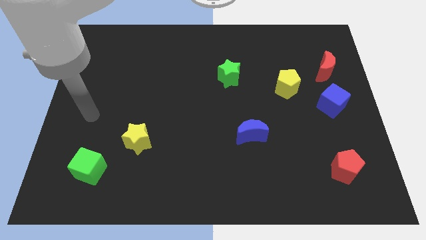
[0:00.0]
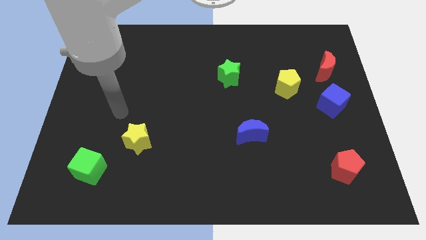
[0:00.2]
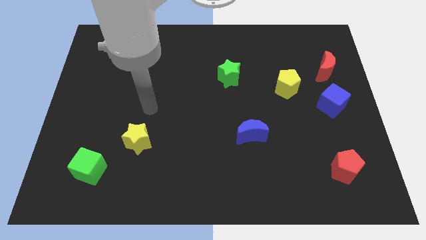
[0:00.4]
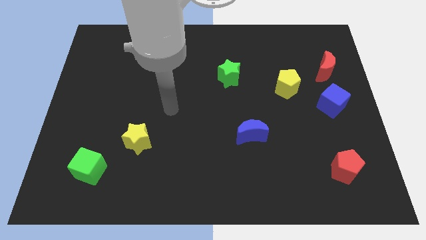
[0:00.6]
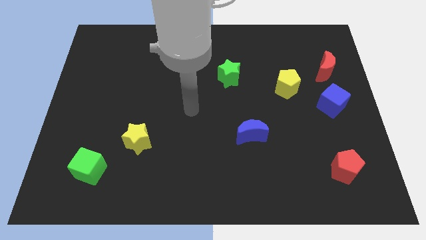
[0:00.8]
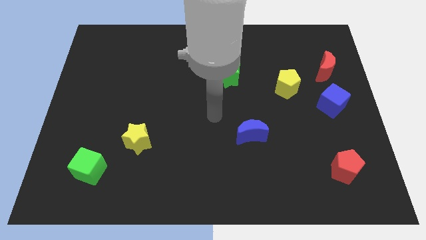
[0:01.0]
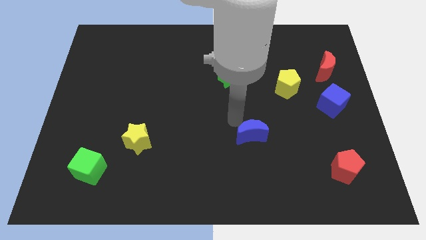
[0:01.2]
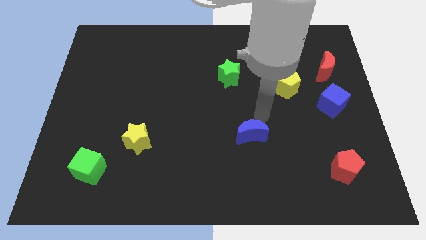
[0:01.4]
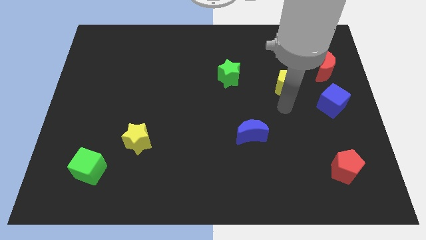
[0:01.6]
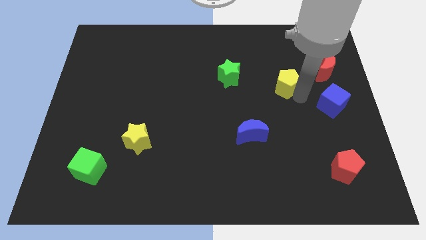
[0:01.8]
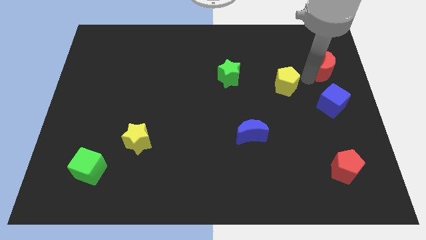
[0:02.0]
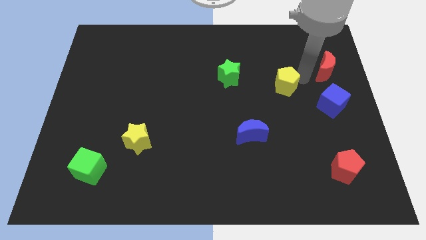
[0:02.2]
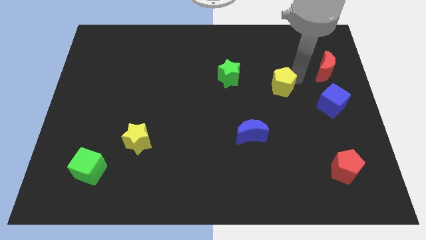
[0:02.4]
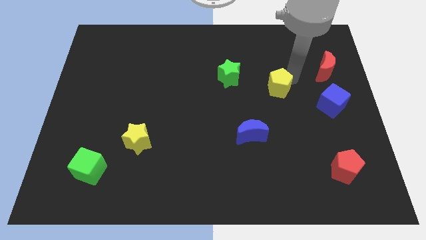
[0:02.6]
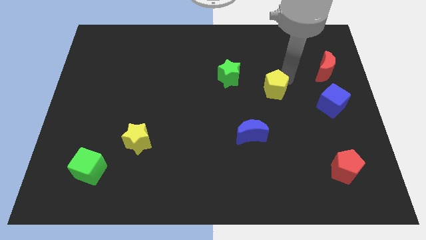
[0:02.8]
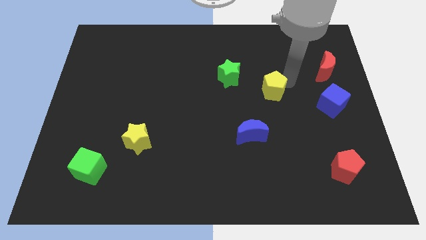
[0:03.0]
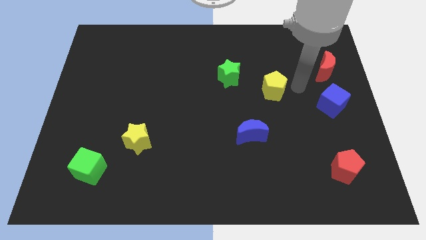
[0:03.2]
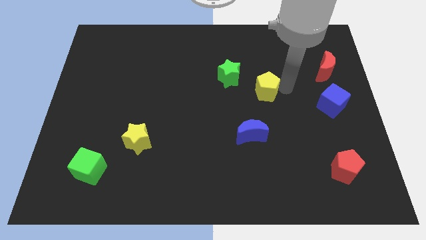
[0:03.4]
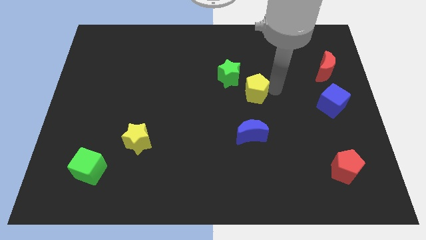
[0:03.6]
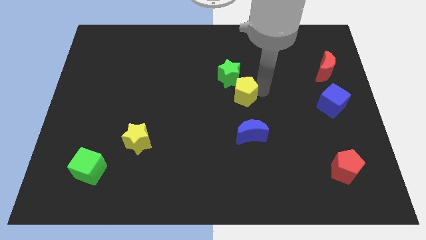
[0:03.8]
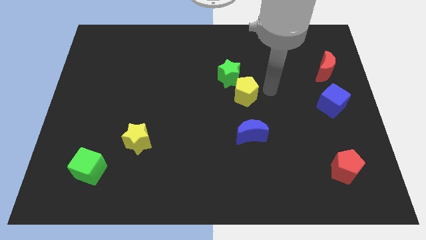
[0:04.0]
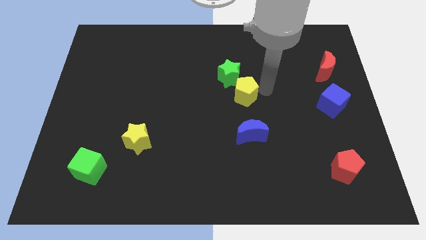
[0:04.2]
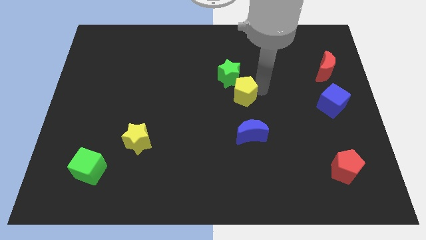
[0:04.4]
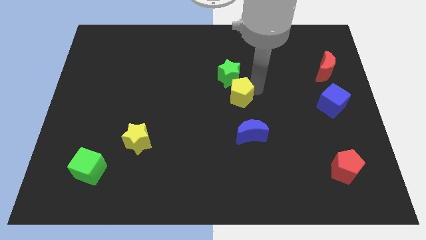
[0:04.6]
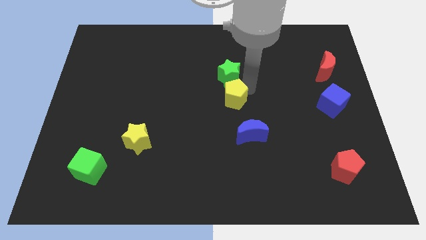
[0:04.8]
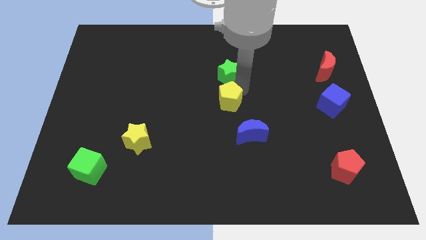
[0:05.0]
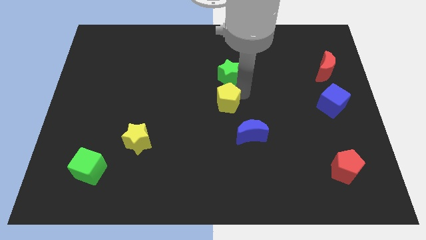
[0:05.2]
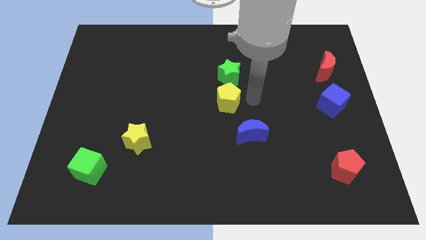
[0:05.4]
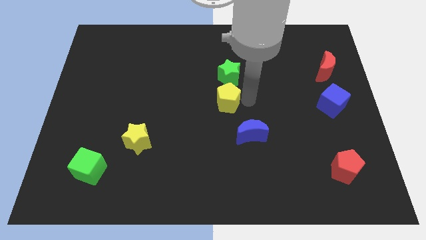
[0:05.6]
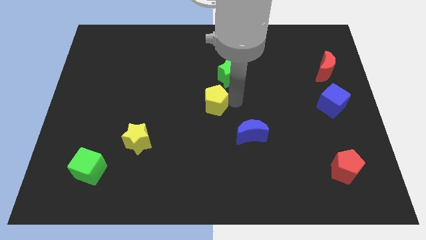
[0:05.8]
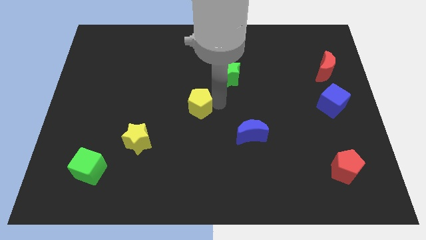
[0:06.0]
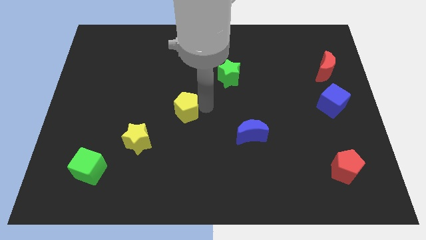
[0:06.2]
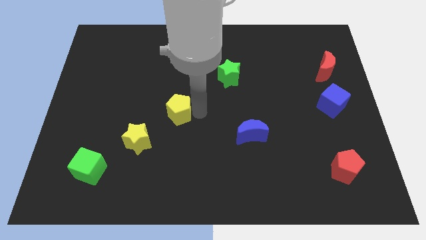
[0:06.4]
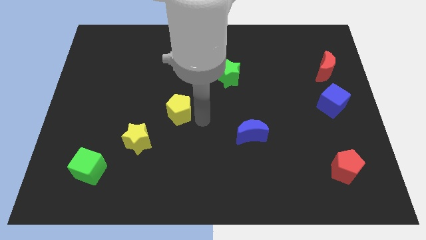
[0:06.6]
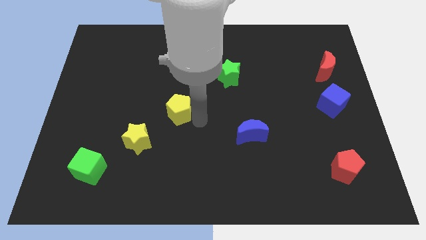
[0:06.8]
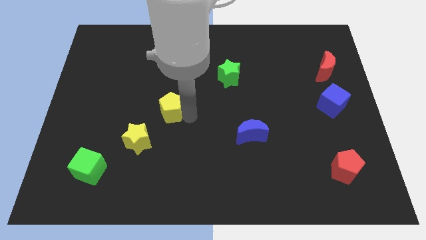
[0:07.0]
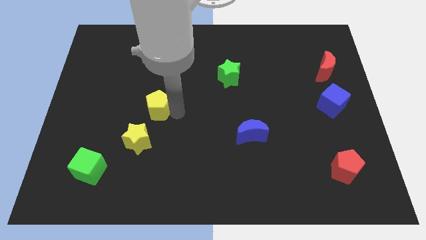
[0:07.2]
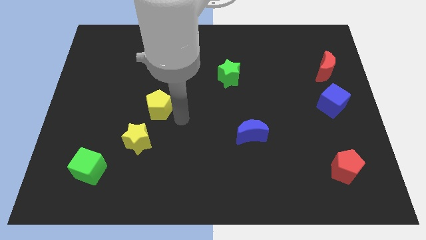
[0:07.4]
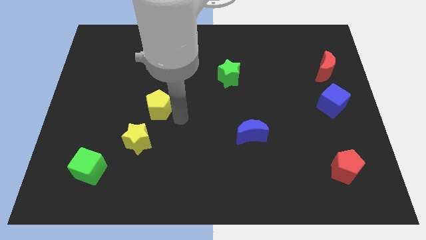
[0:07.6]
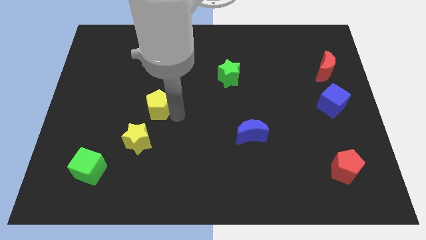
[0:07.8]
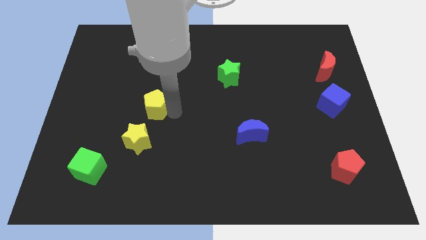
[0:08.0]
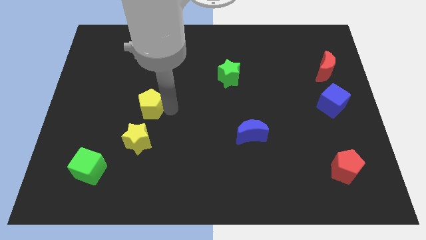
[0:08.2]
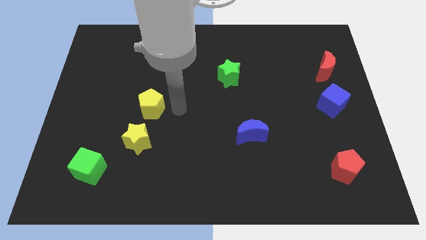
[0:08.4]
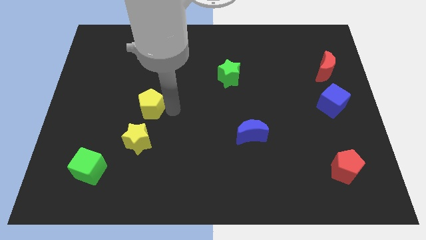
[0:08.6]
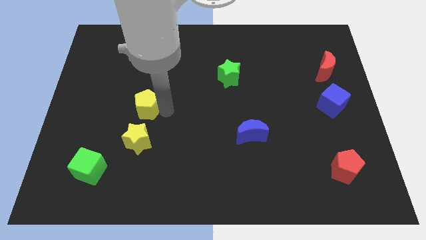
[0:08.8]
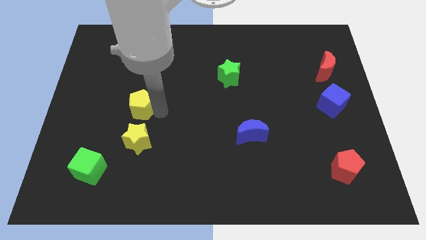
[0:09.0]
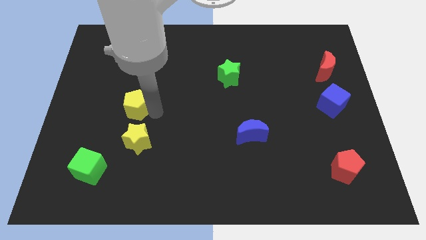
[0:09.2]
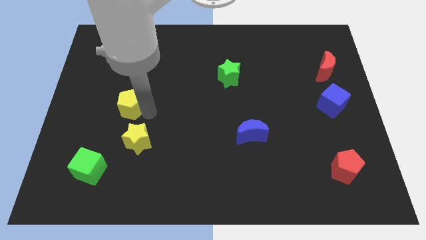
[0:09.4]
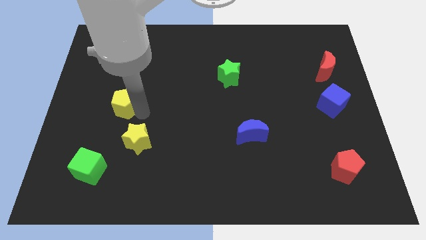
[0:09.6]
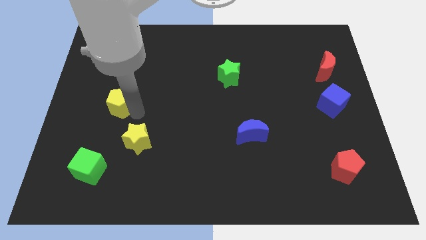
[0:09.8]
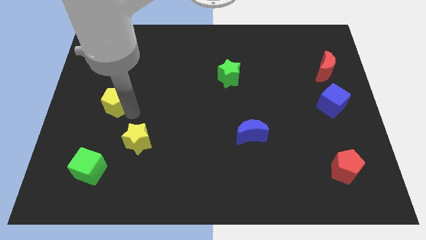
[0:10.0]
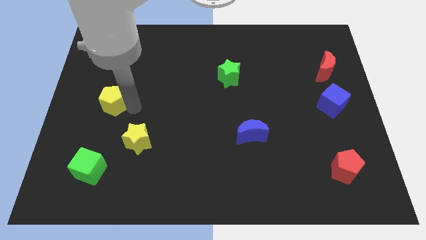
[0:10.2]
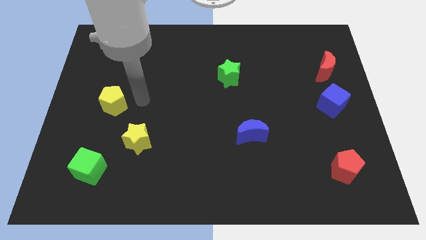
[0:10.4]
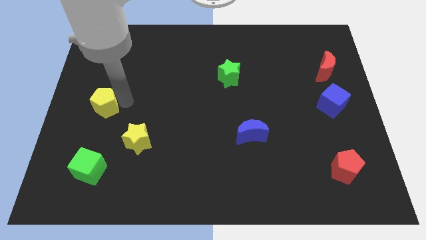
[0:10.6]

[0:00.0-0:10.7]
move the yellow pentagon to the center left

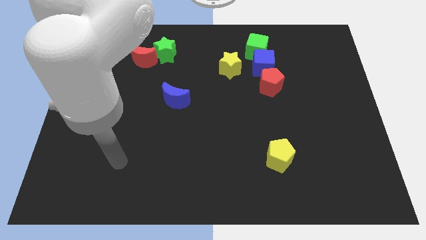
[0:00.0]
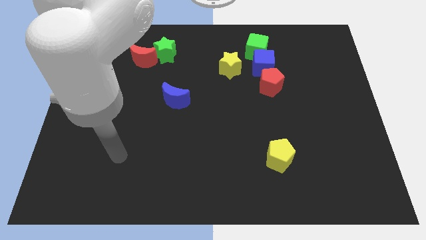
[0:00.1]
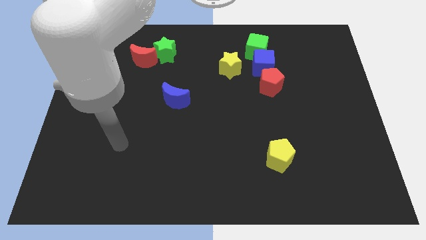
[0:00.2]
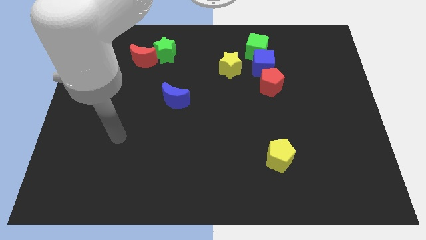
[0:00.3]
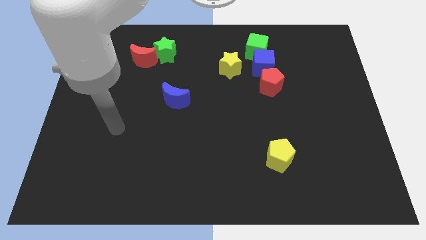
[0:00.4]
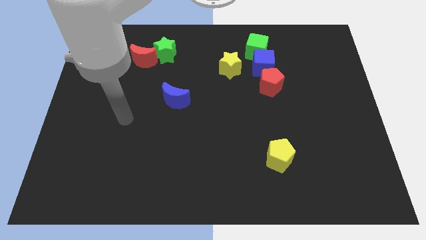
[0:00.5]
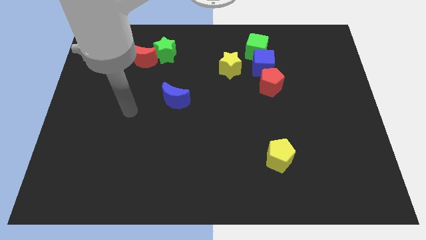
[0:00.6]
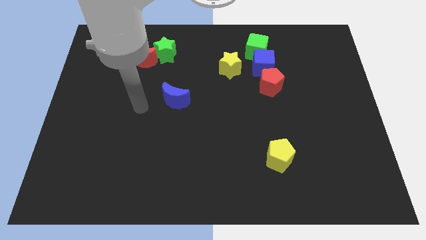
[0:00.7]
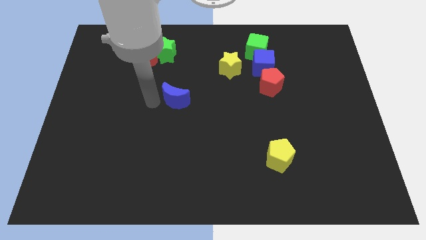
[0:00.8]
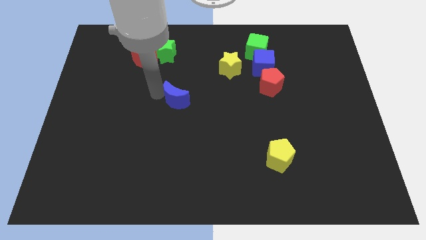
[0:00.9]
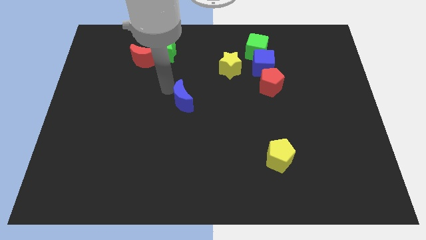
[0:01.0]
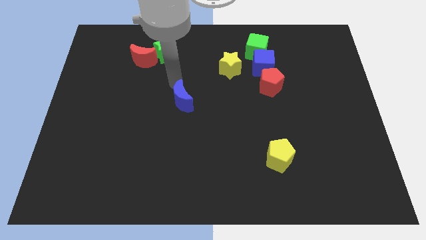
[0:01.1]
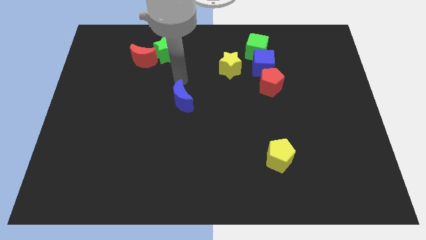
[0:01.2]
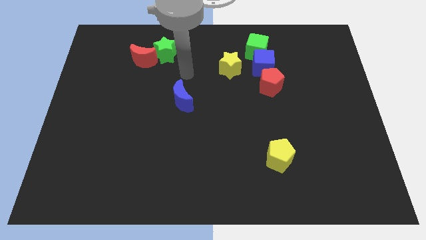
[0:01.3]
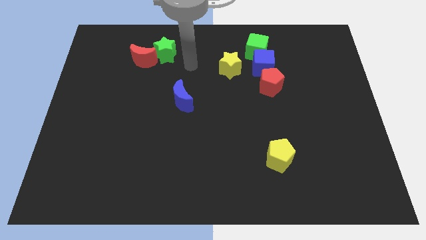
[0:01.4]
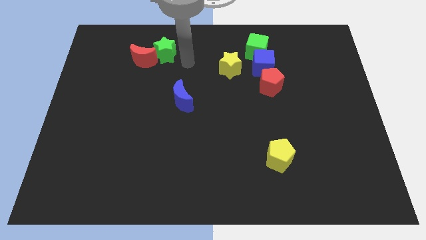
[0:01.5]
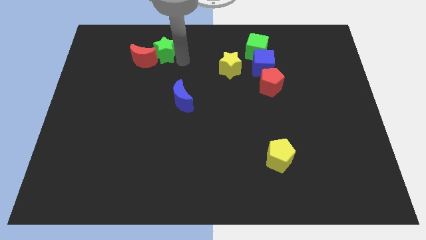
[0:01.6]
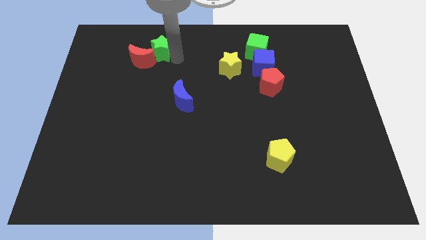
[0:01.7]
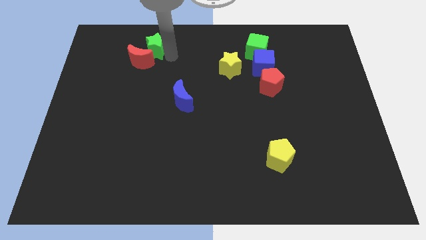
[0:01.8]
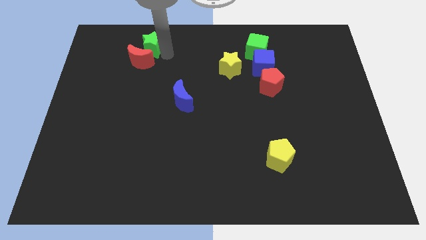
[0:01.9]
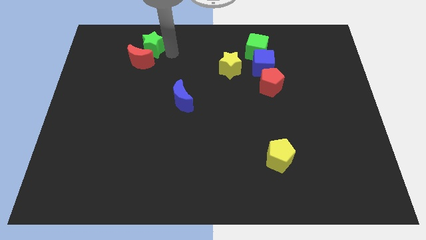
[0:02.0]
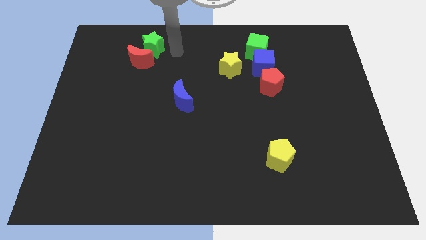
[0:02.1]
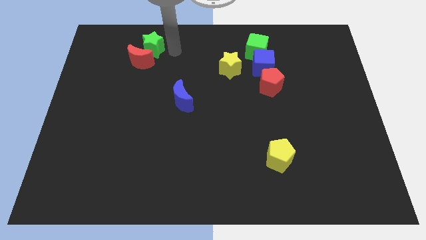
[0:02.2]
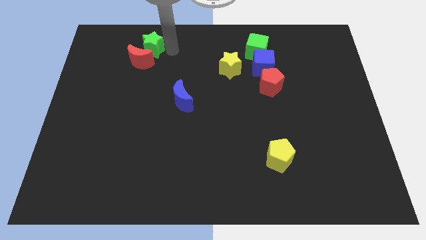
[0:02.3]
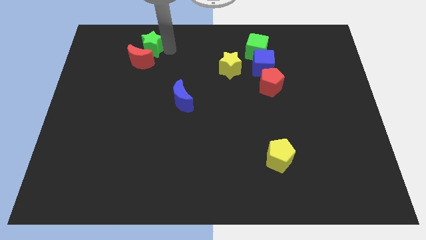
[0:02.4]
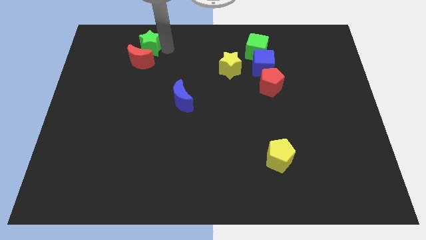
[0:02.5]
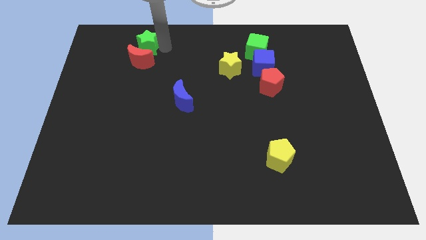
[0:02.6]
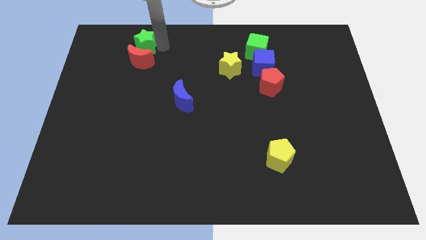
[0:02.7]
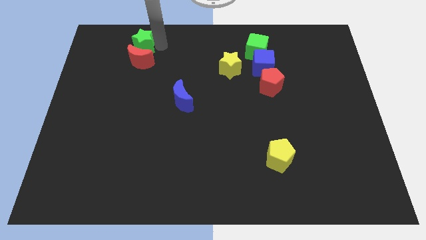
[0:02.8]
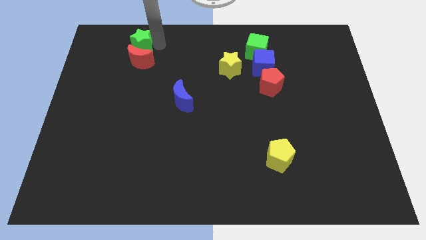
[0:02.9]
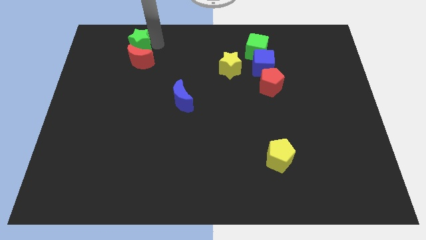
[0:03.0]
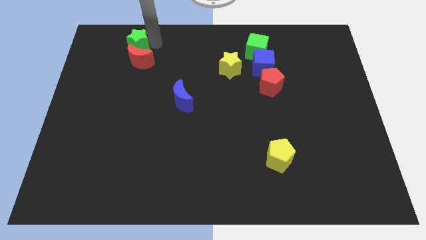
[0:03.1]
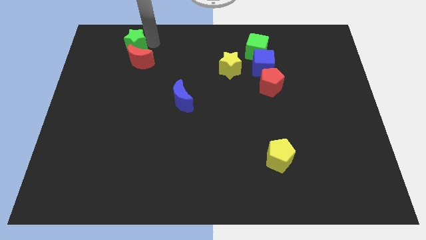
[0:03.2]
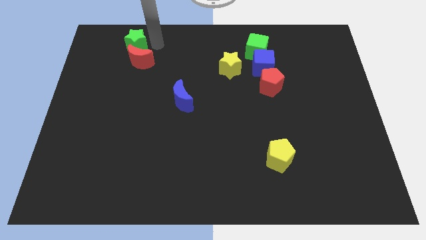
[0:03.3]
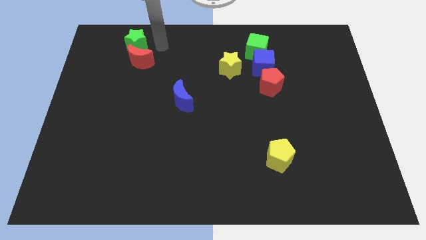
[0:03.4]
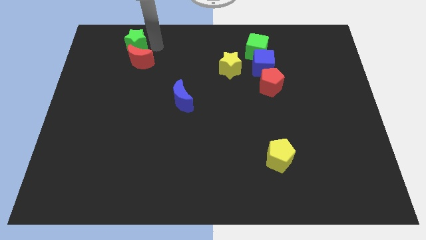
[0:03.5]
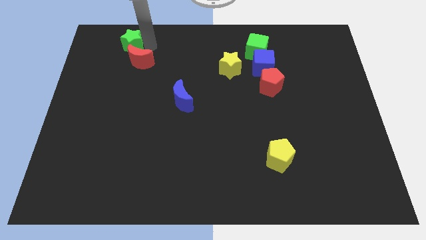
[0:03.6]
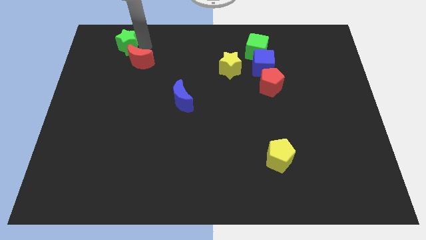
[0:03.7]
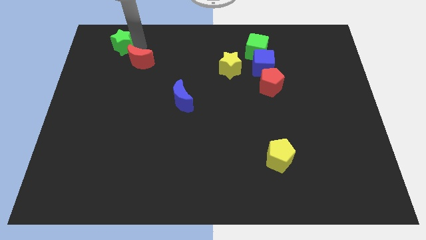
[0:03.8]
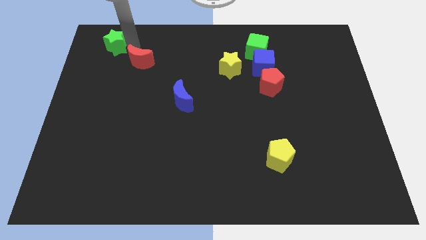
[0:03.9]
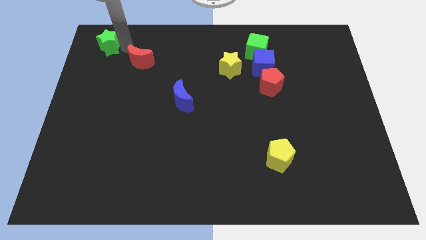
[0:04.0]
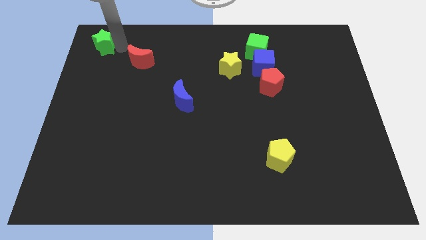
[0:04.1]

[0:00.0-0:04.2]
push the green star to the top left corner
